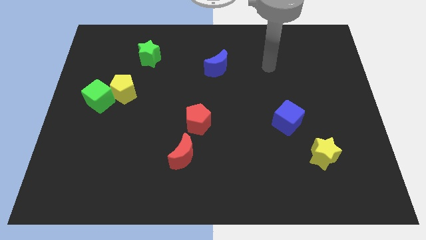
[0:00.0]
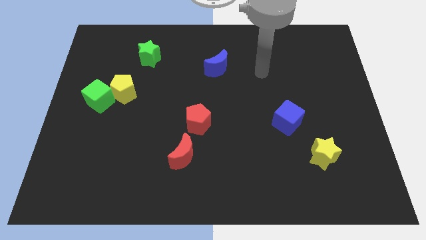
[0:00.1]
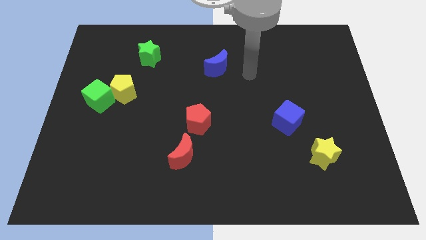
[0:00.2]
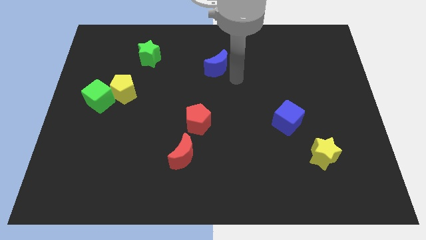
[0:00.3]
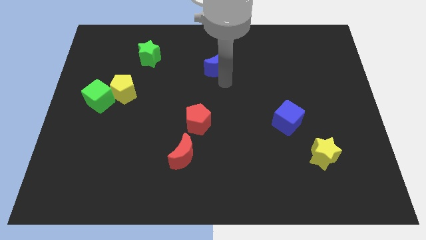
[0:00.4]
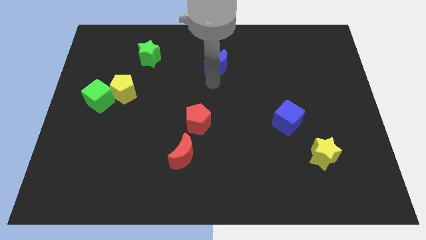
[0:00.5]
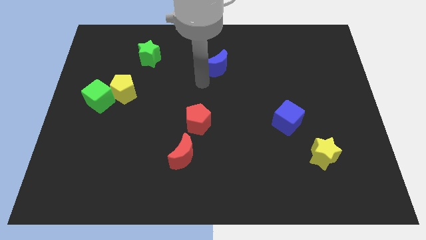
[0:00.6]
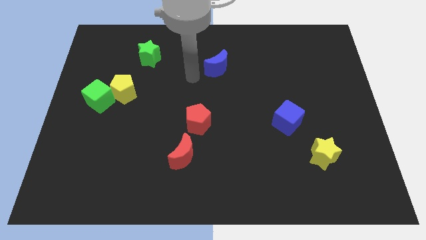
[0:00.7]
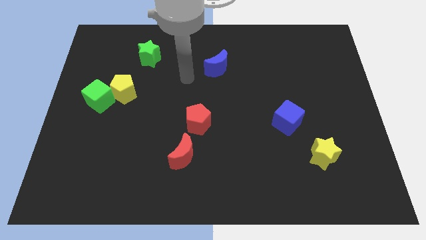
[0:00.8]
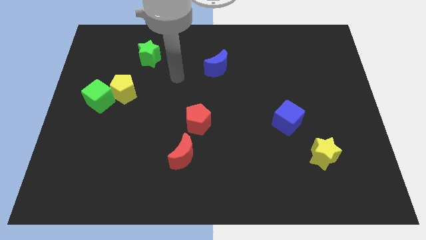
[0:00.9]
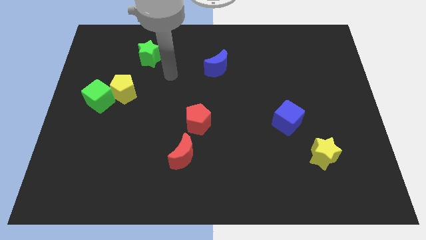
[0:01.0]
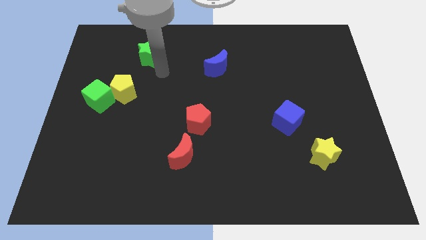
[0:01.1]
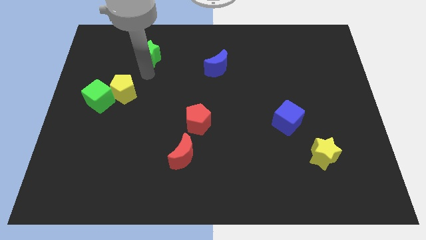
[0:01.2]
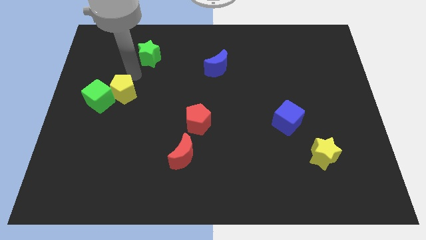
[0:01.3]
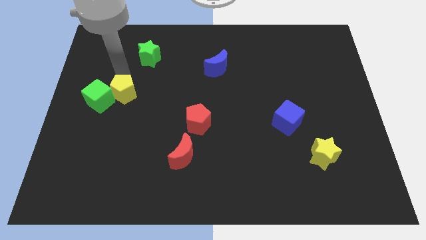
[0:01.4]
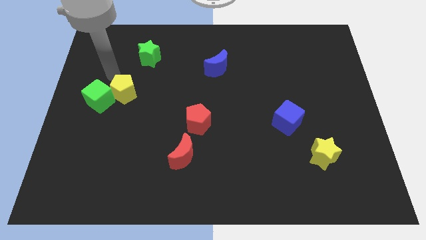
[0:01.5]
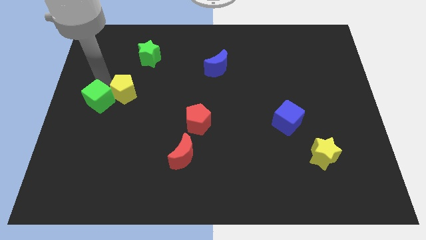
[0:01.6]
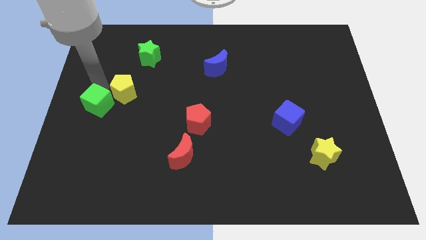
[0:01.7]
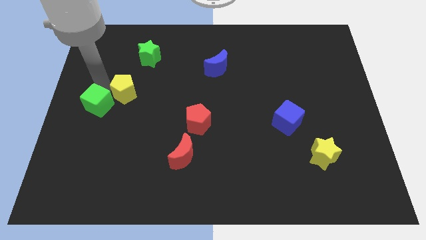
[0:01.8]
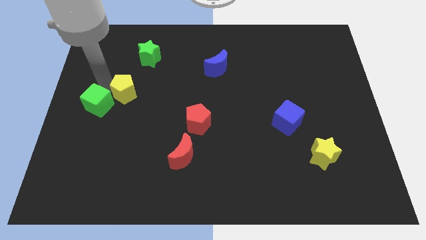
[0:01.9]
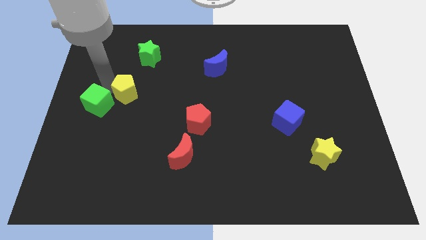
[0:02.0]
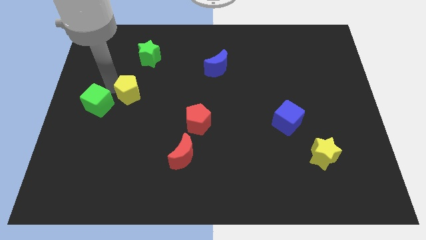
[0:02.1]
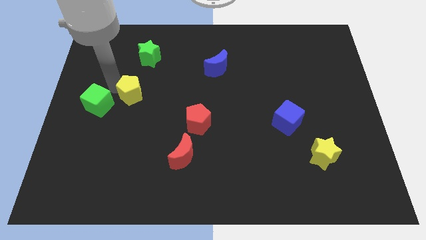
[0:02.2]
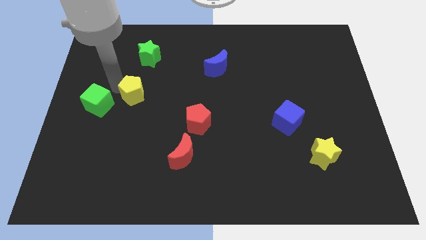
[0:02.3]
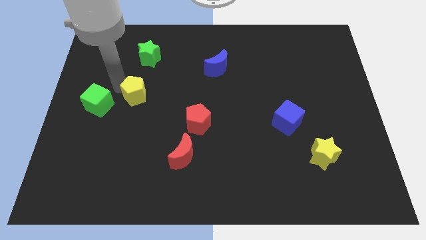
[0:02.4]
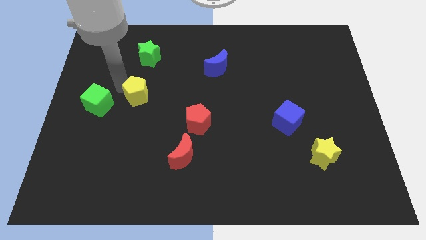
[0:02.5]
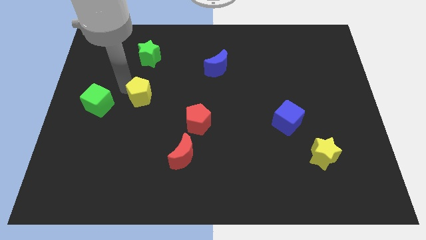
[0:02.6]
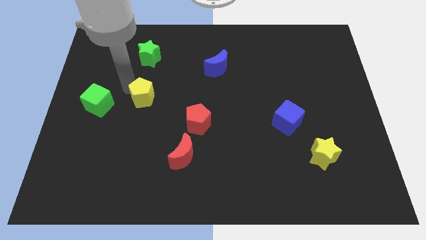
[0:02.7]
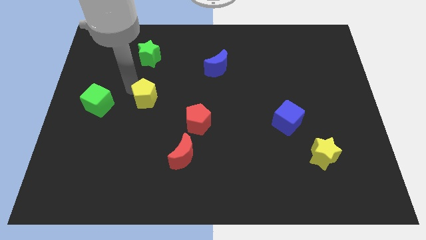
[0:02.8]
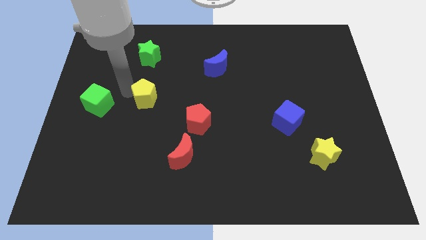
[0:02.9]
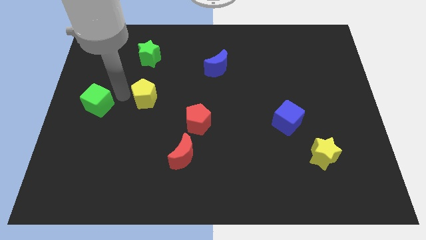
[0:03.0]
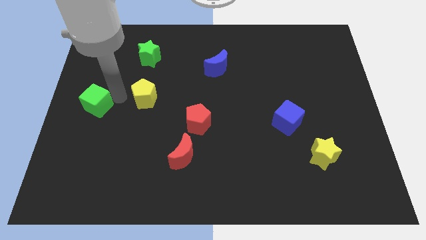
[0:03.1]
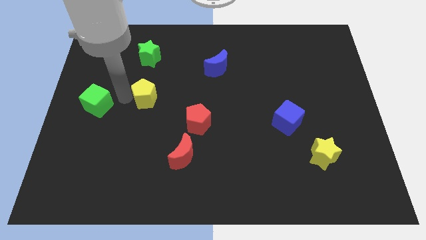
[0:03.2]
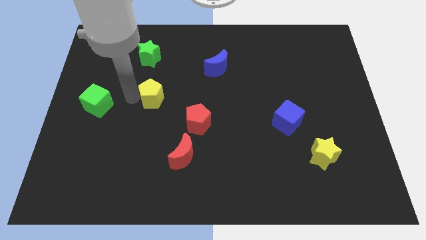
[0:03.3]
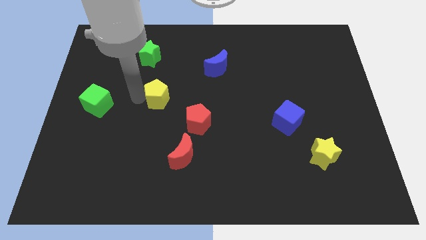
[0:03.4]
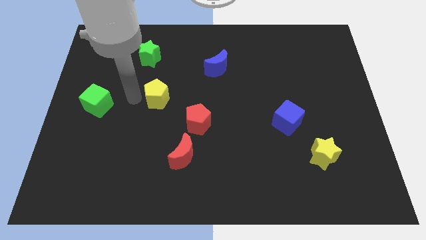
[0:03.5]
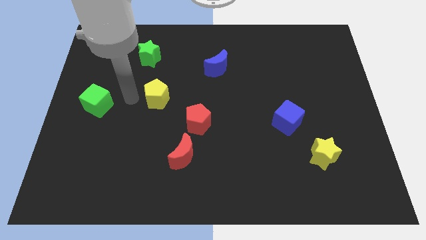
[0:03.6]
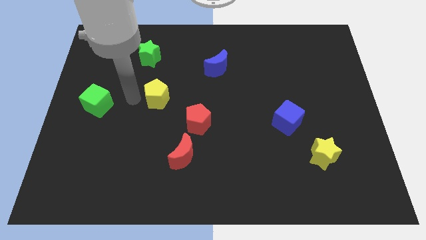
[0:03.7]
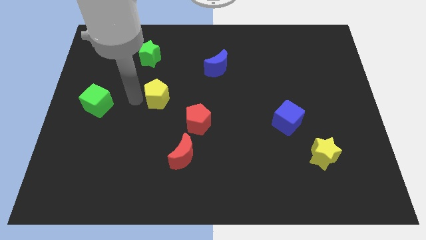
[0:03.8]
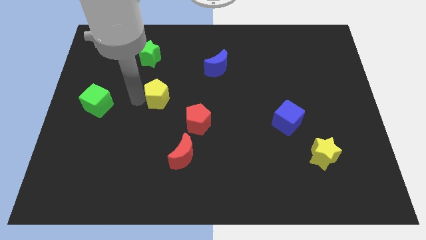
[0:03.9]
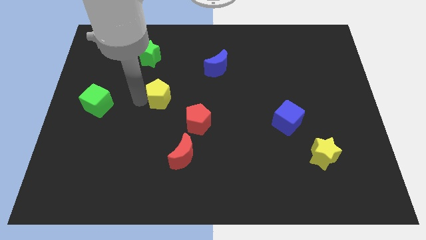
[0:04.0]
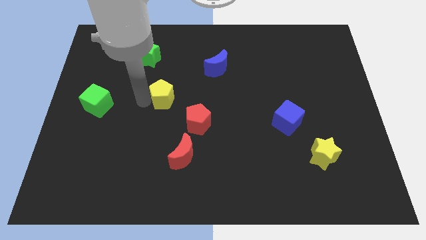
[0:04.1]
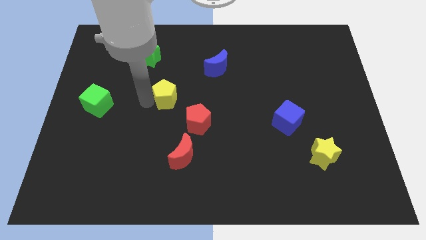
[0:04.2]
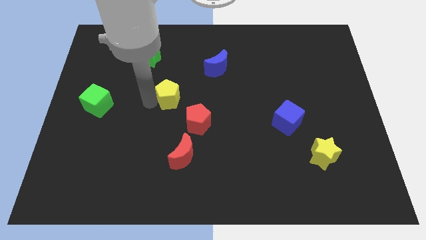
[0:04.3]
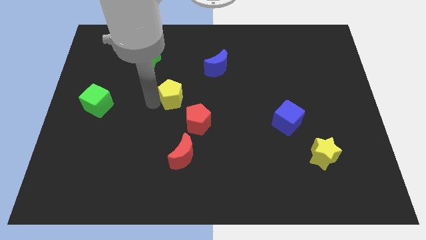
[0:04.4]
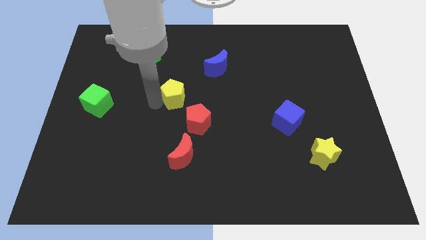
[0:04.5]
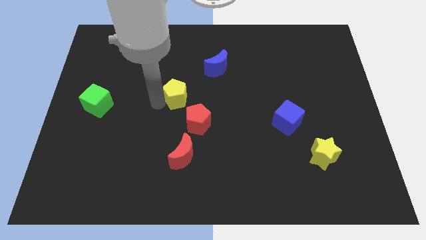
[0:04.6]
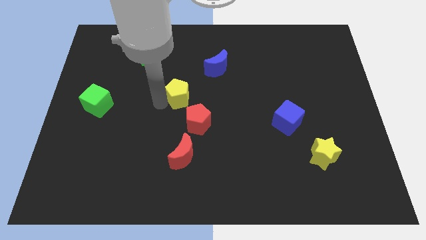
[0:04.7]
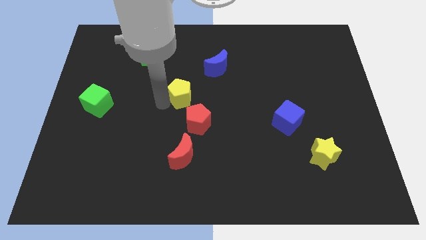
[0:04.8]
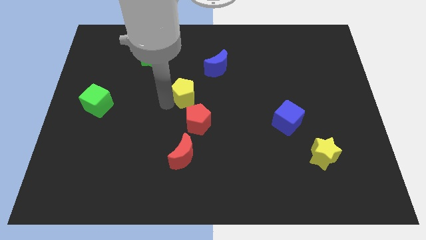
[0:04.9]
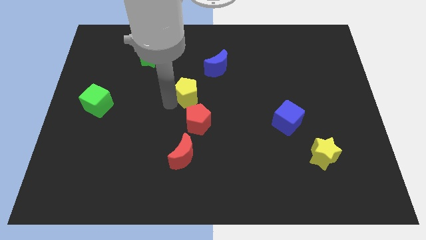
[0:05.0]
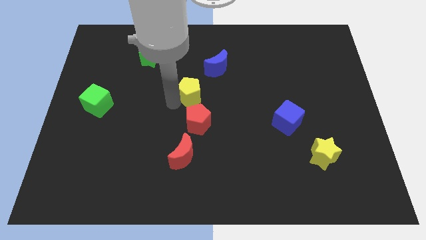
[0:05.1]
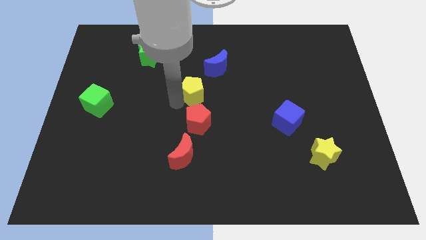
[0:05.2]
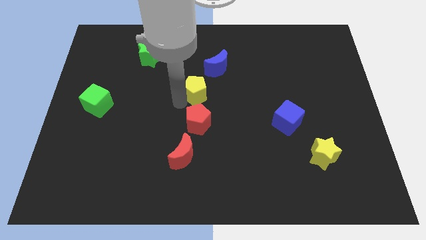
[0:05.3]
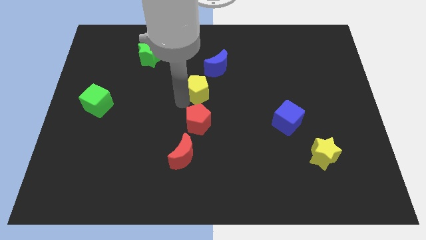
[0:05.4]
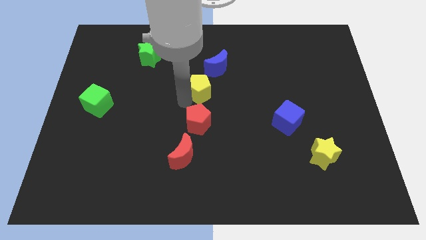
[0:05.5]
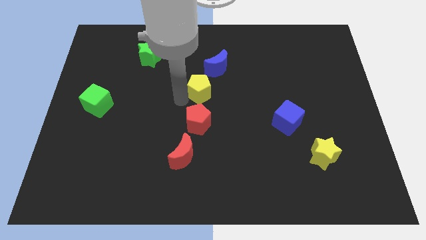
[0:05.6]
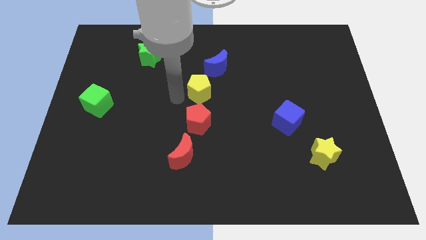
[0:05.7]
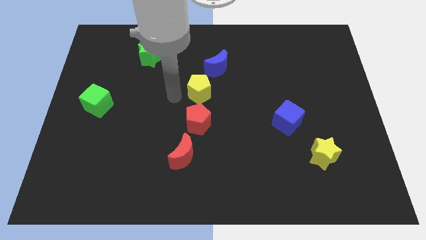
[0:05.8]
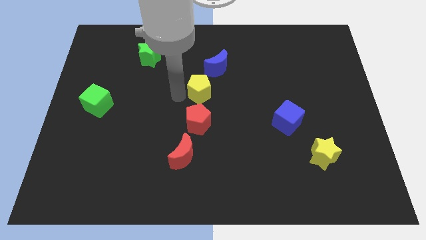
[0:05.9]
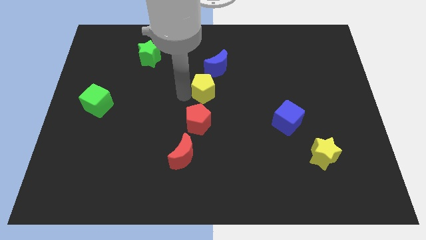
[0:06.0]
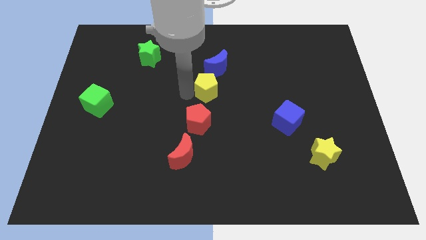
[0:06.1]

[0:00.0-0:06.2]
push the yellow pentagon to the right

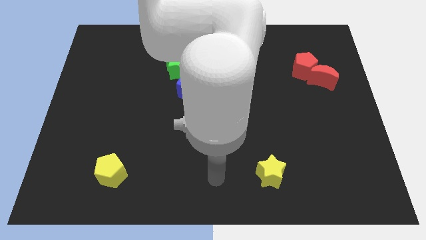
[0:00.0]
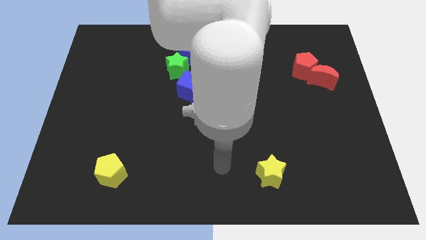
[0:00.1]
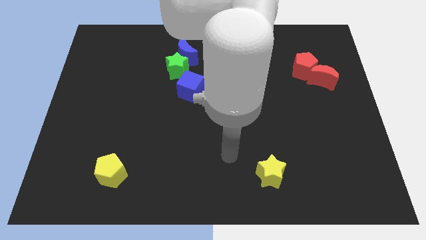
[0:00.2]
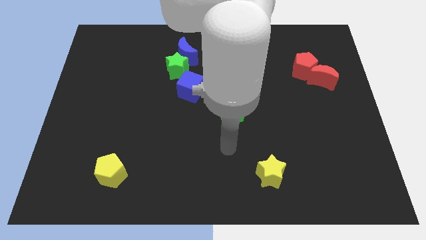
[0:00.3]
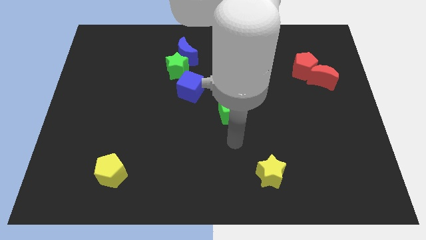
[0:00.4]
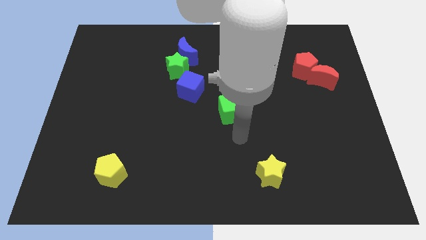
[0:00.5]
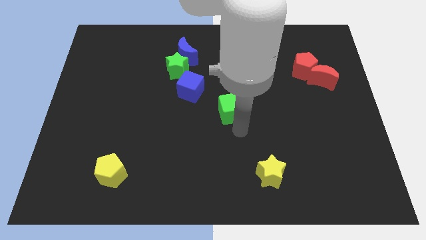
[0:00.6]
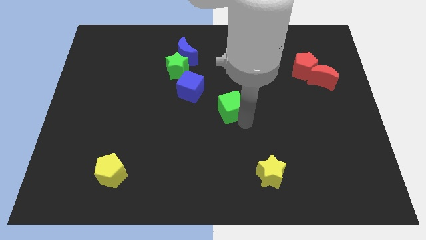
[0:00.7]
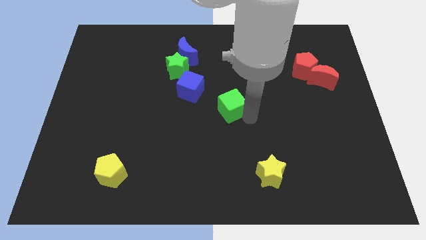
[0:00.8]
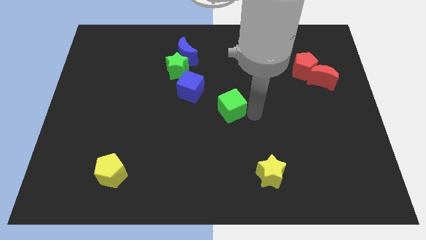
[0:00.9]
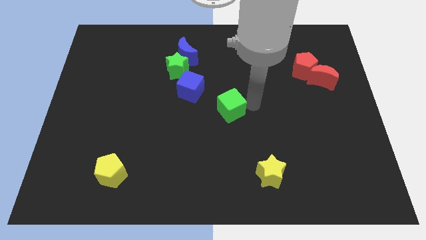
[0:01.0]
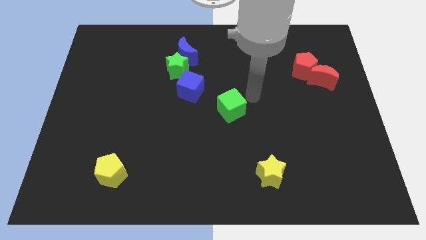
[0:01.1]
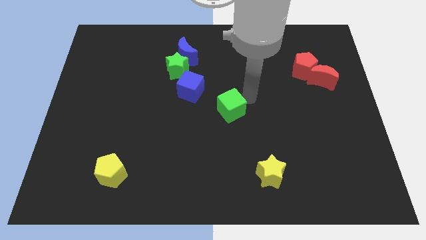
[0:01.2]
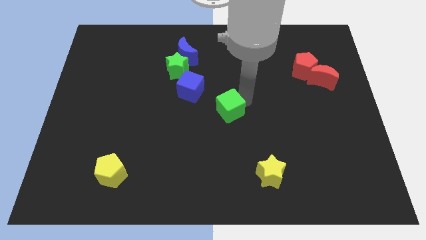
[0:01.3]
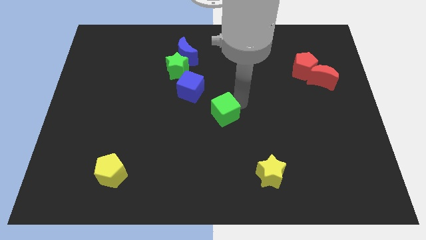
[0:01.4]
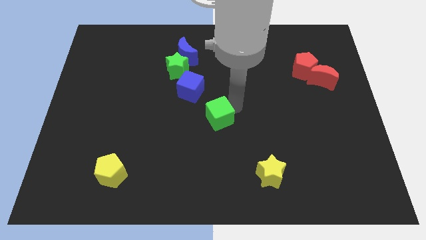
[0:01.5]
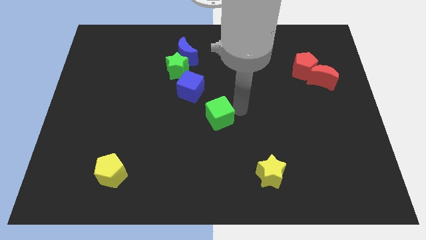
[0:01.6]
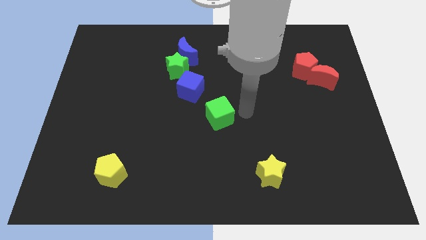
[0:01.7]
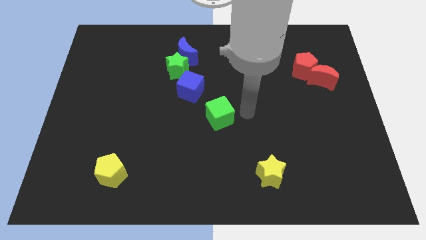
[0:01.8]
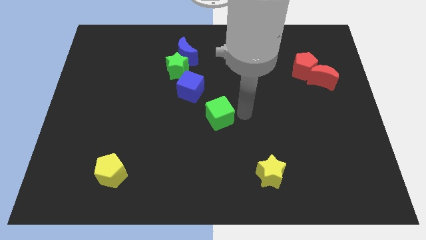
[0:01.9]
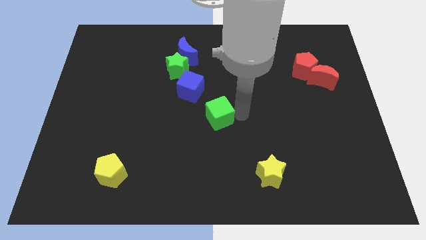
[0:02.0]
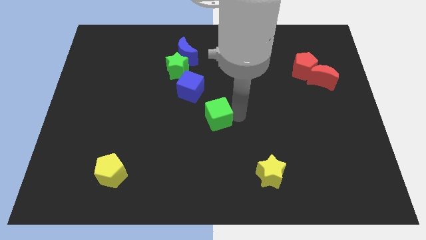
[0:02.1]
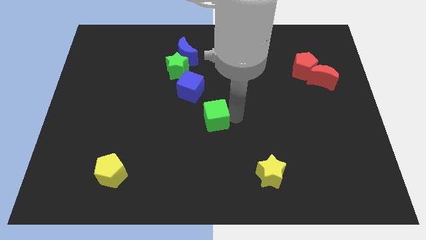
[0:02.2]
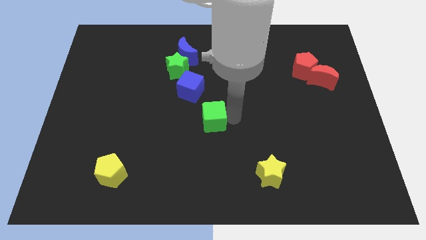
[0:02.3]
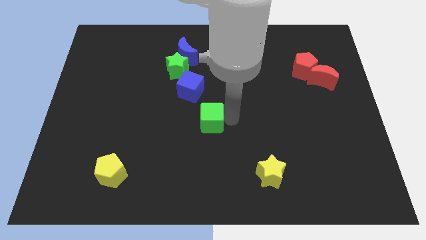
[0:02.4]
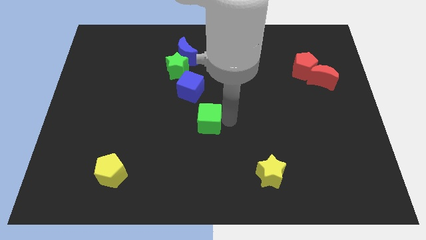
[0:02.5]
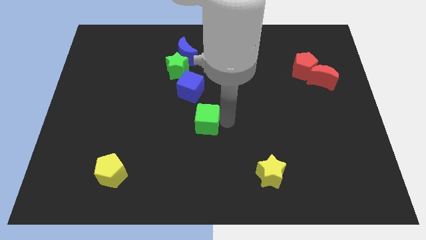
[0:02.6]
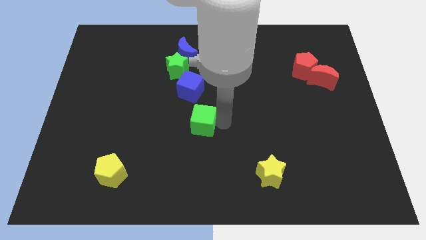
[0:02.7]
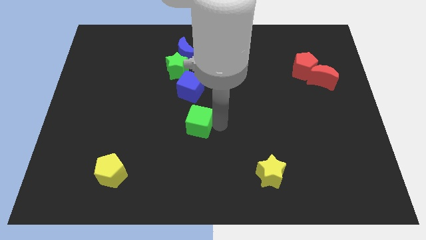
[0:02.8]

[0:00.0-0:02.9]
move the green cube to the left slightly
